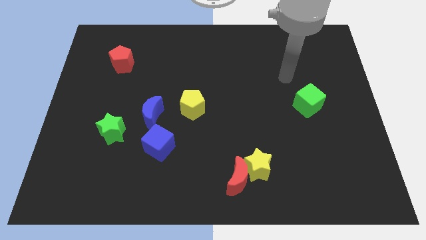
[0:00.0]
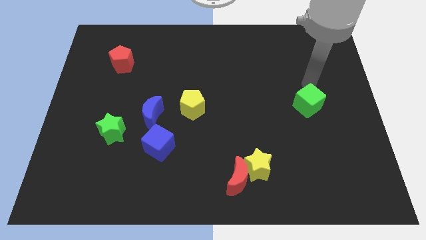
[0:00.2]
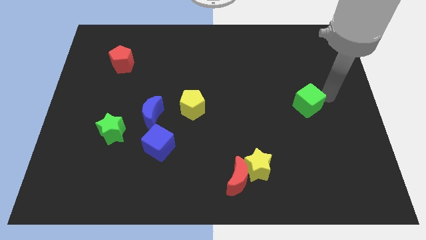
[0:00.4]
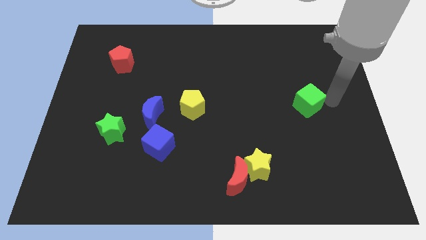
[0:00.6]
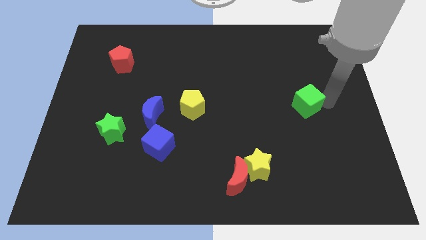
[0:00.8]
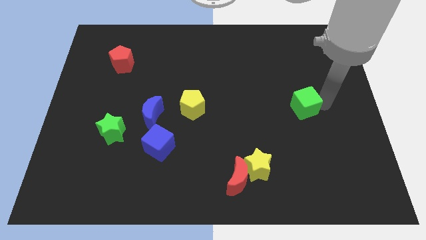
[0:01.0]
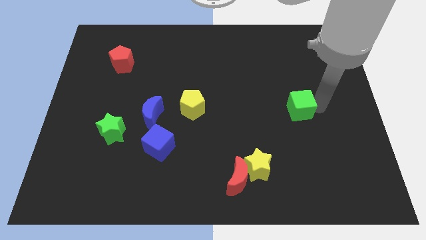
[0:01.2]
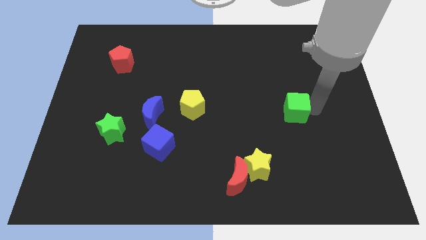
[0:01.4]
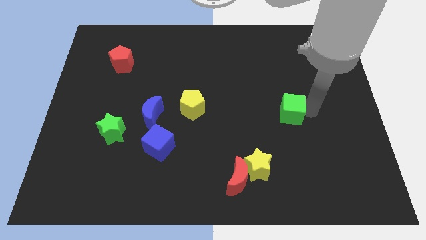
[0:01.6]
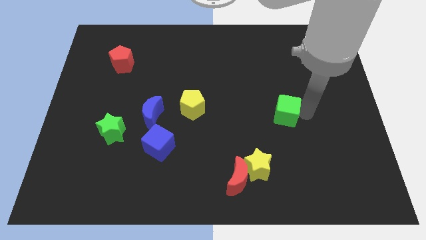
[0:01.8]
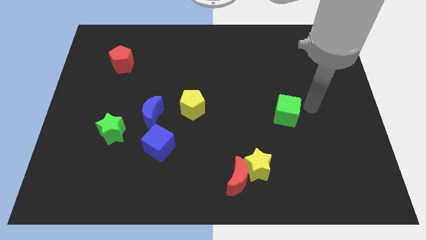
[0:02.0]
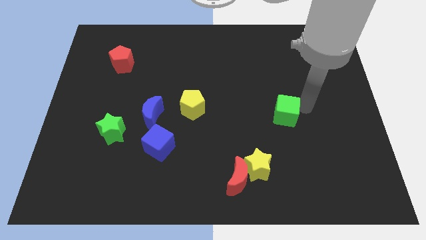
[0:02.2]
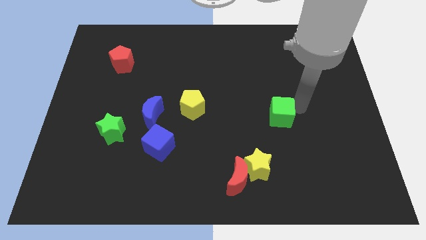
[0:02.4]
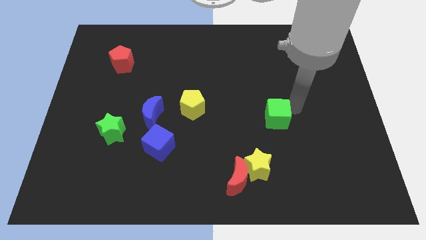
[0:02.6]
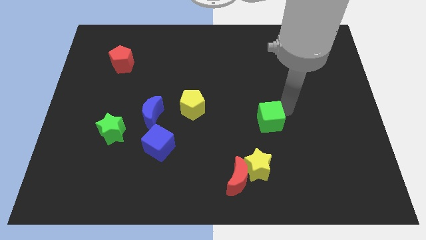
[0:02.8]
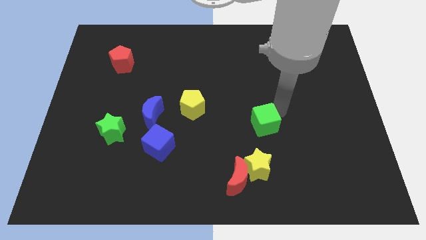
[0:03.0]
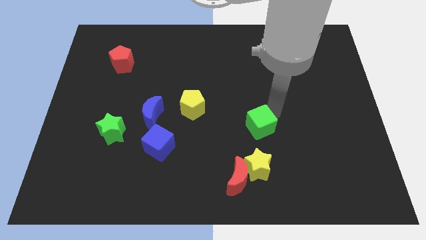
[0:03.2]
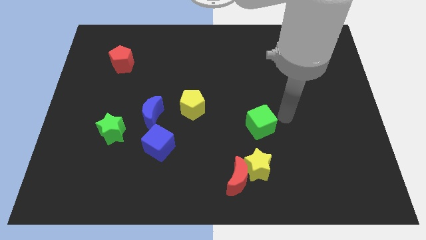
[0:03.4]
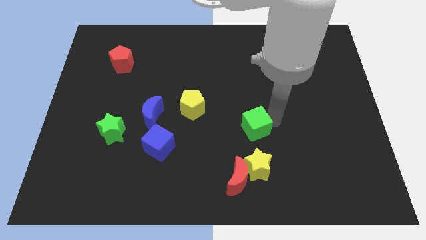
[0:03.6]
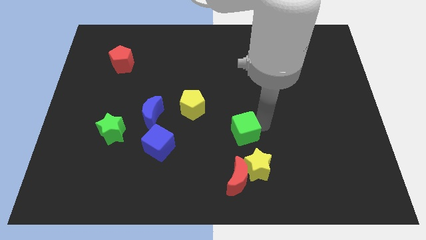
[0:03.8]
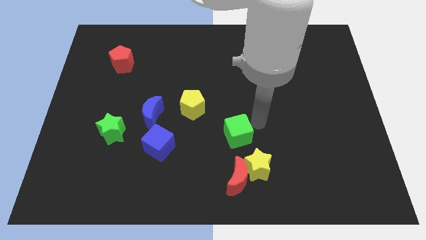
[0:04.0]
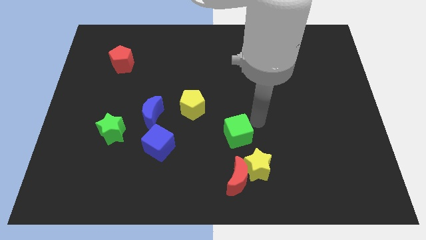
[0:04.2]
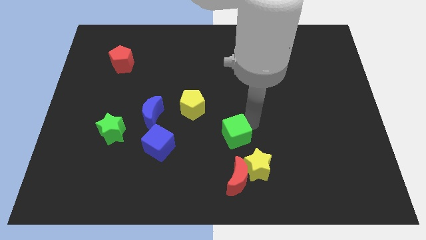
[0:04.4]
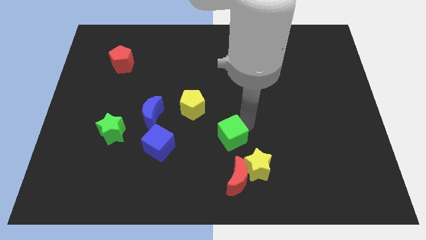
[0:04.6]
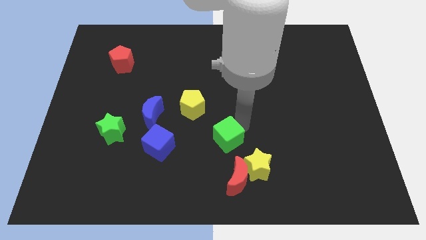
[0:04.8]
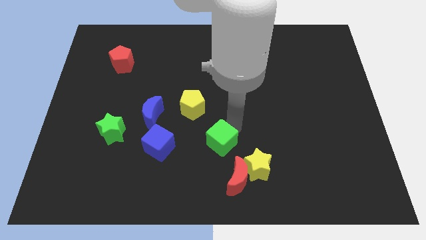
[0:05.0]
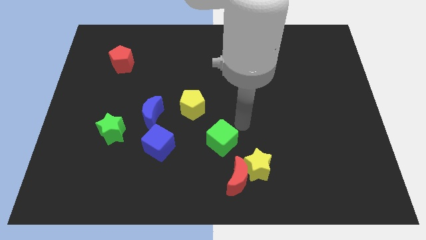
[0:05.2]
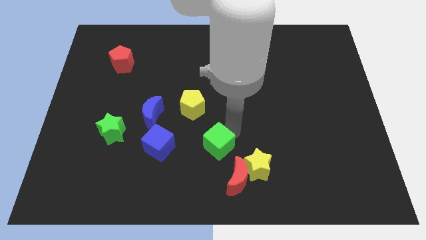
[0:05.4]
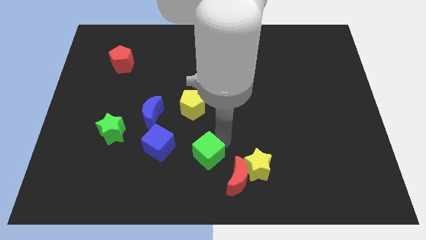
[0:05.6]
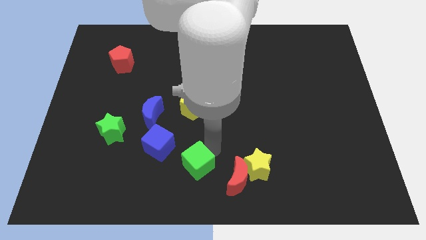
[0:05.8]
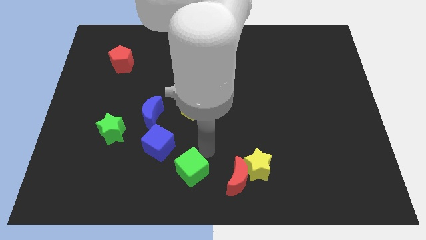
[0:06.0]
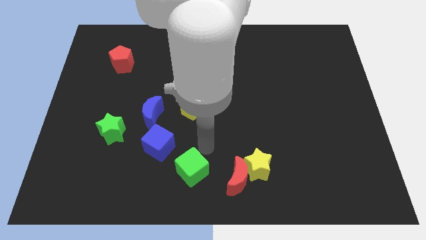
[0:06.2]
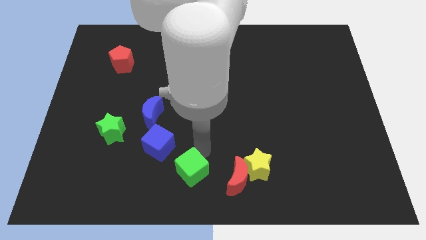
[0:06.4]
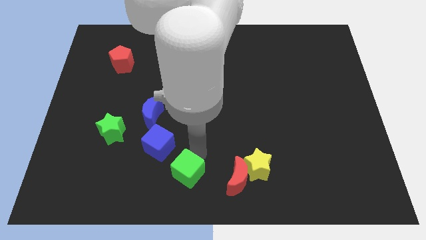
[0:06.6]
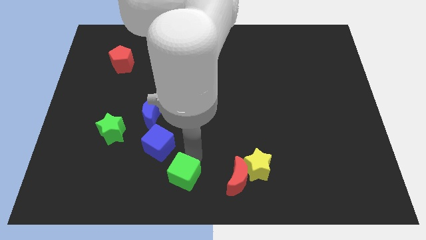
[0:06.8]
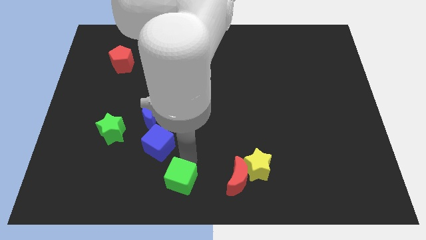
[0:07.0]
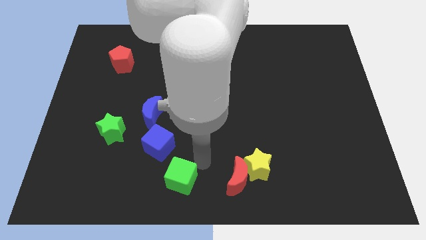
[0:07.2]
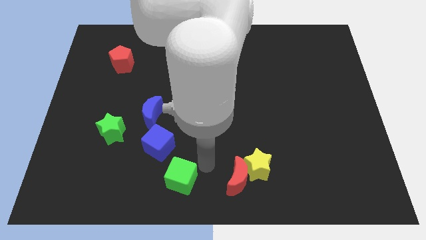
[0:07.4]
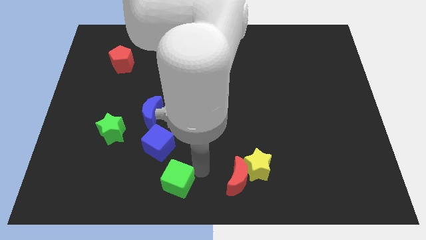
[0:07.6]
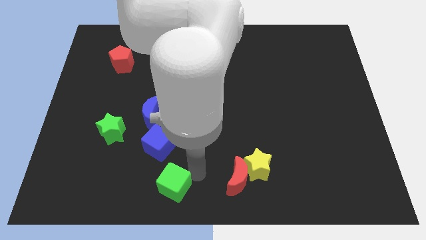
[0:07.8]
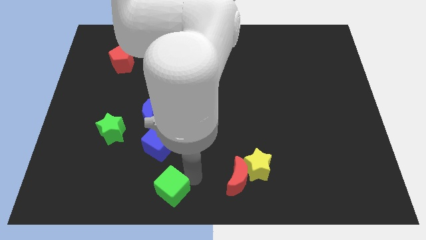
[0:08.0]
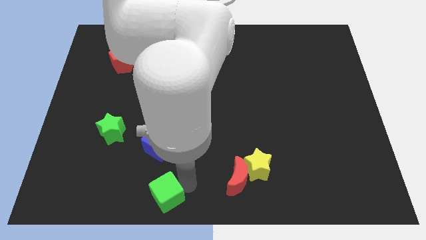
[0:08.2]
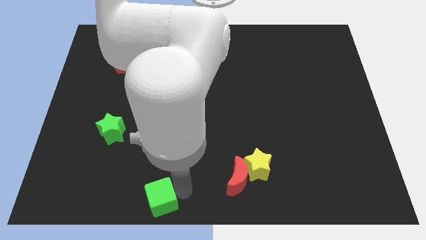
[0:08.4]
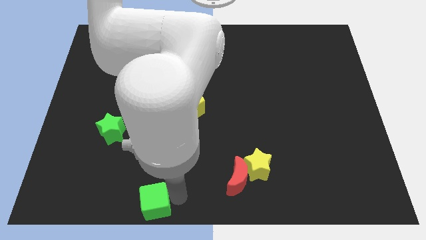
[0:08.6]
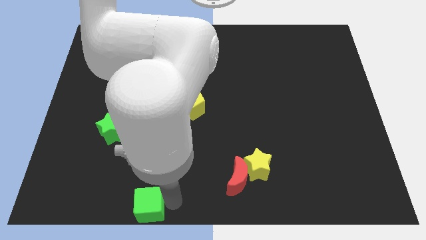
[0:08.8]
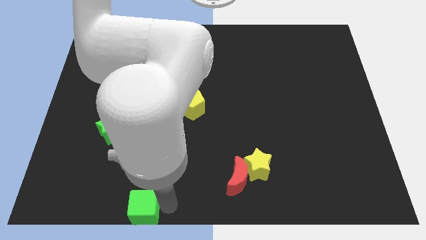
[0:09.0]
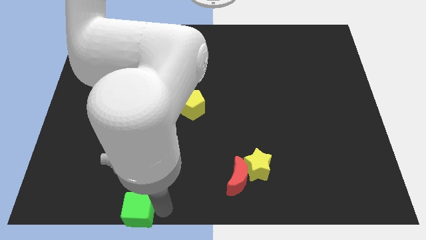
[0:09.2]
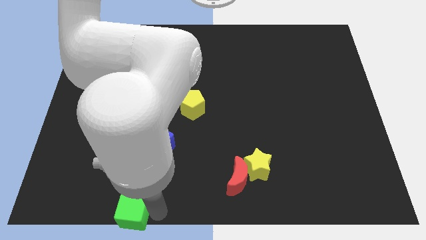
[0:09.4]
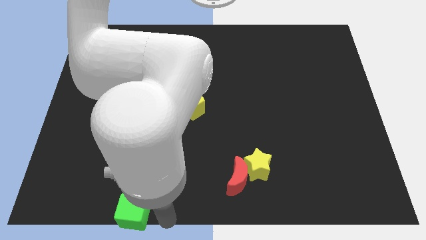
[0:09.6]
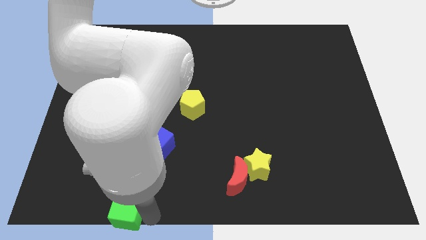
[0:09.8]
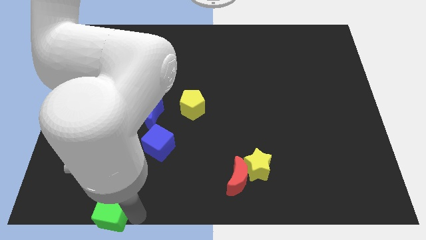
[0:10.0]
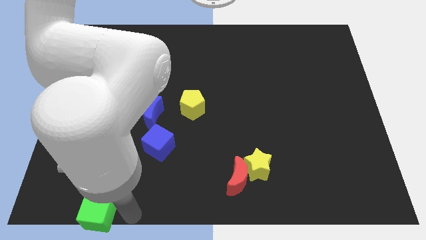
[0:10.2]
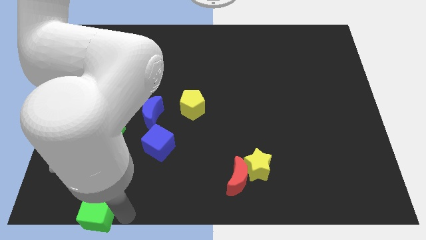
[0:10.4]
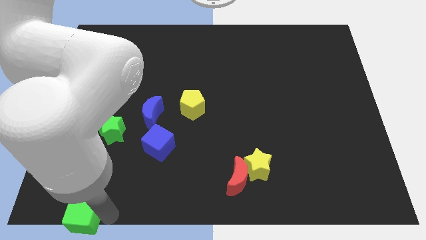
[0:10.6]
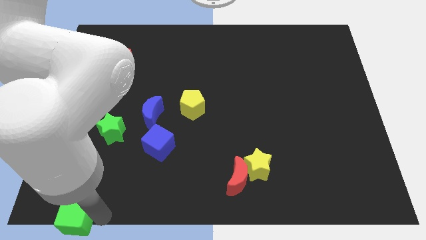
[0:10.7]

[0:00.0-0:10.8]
put the green cube to the bottom left

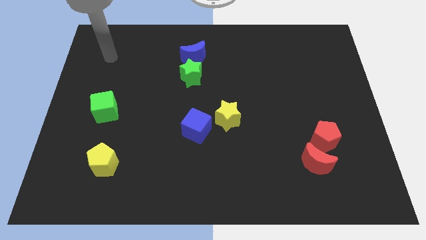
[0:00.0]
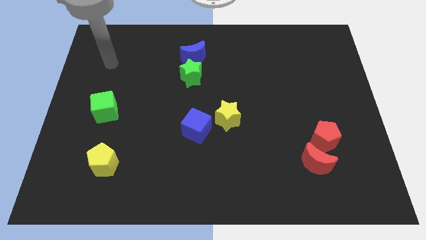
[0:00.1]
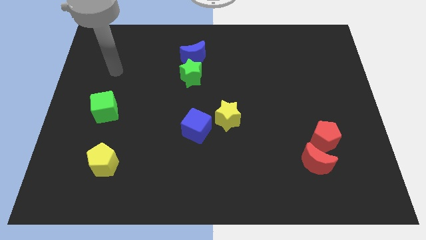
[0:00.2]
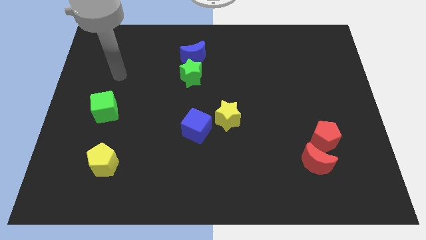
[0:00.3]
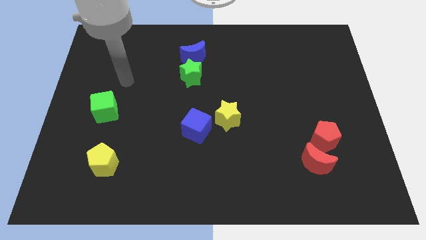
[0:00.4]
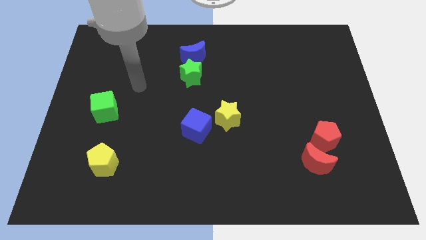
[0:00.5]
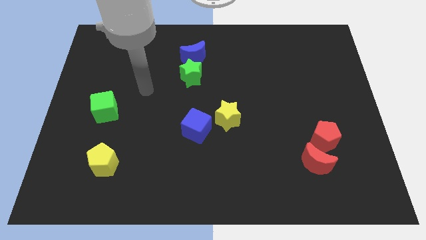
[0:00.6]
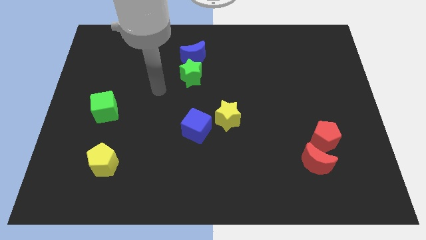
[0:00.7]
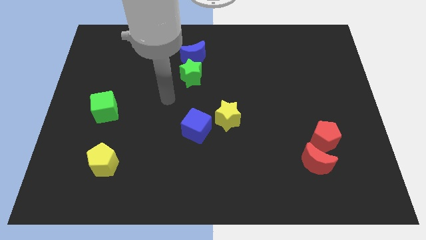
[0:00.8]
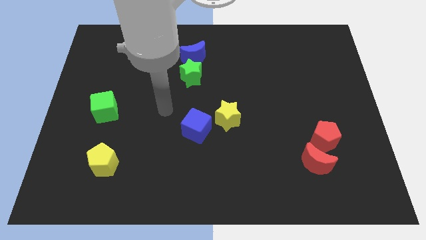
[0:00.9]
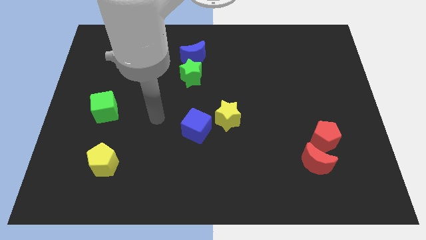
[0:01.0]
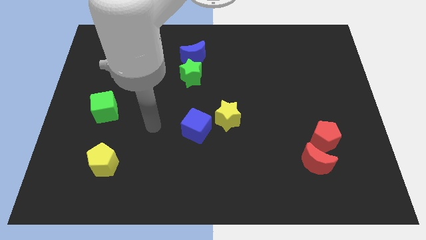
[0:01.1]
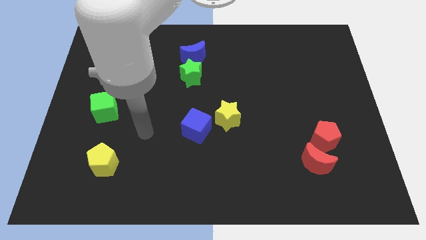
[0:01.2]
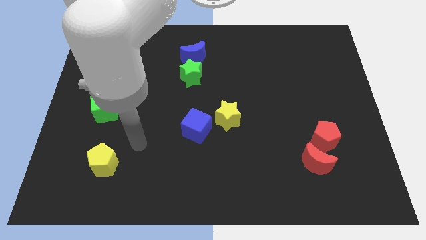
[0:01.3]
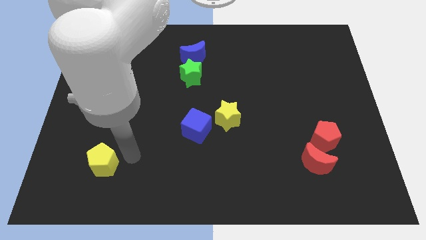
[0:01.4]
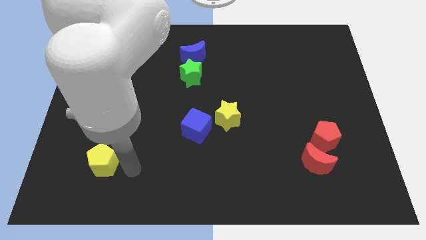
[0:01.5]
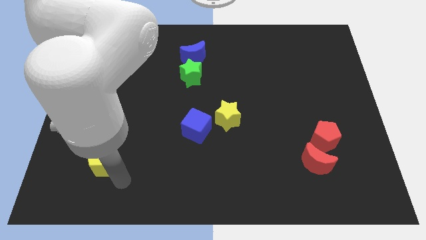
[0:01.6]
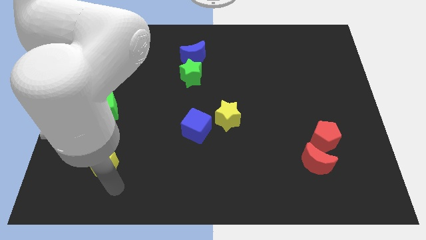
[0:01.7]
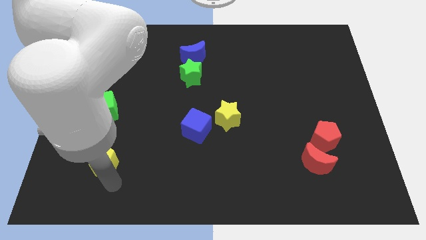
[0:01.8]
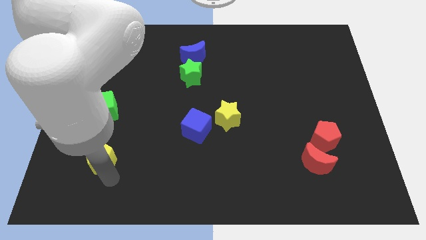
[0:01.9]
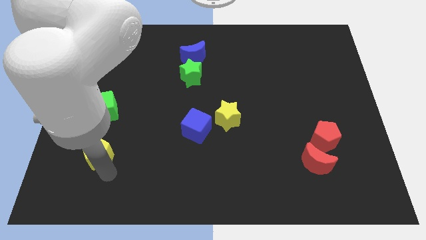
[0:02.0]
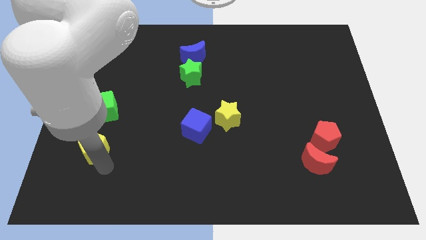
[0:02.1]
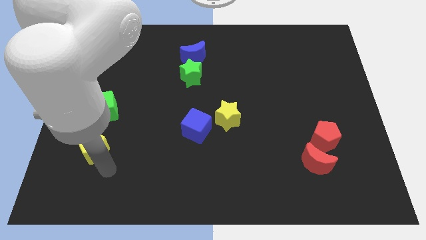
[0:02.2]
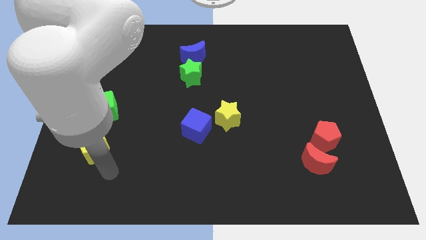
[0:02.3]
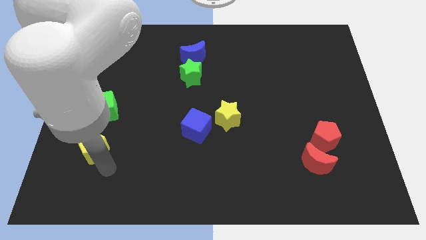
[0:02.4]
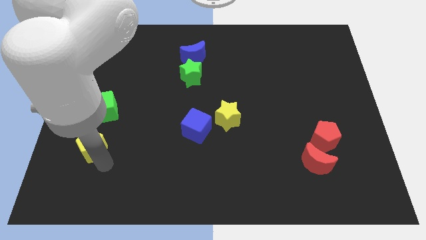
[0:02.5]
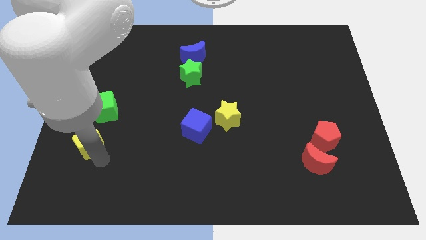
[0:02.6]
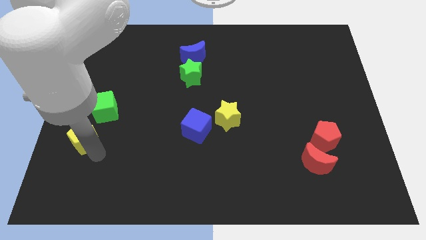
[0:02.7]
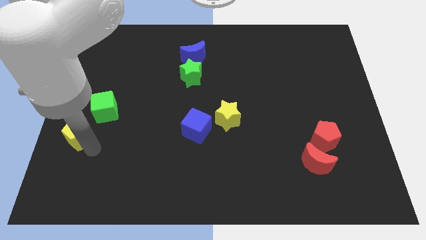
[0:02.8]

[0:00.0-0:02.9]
push the yellow pentagon to the center left
